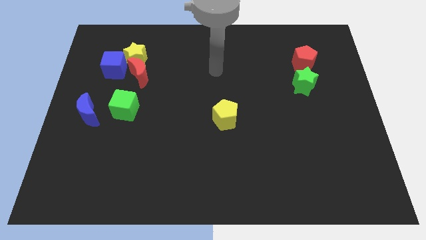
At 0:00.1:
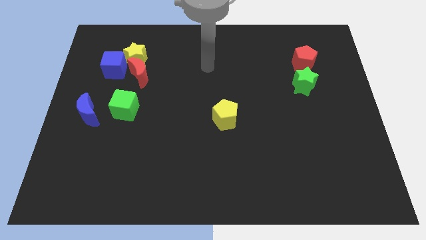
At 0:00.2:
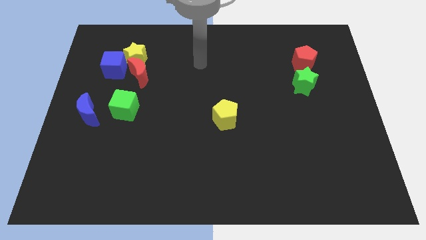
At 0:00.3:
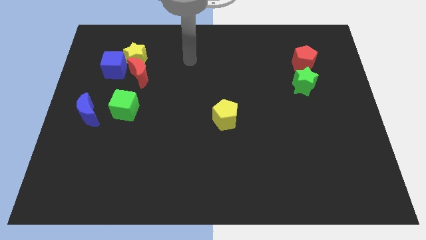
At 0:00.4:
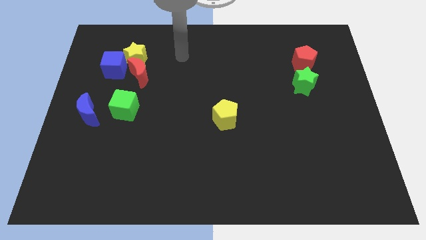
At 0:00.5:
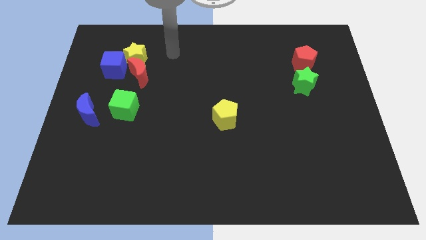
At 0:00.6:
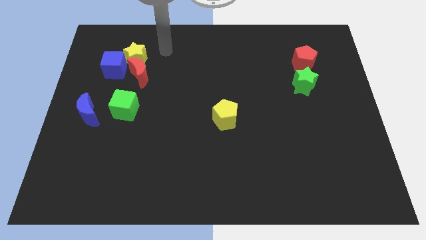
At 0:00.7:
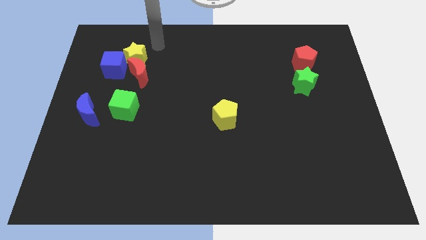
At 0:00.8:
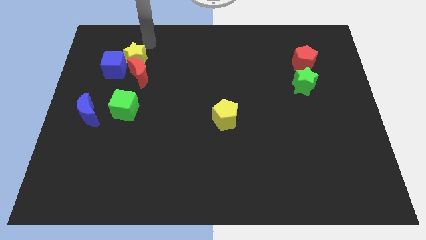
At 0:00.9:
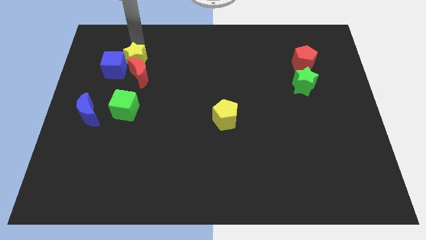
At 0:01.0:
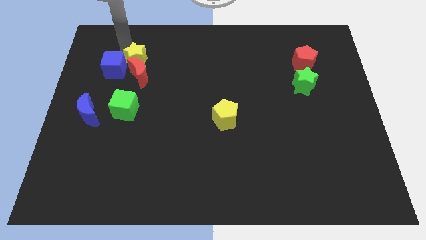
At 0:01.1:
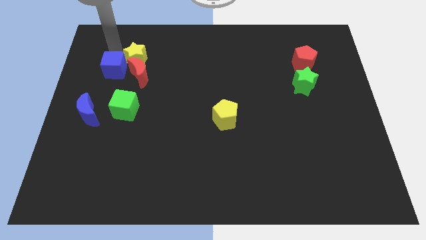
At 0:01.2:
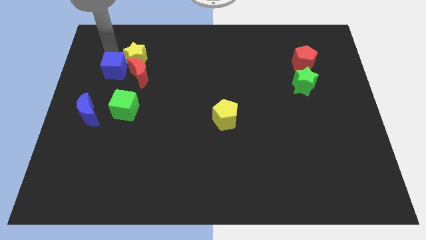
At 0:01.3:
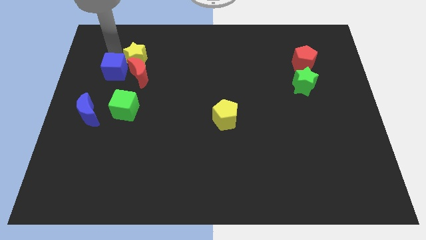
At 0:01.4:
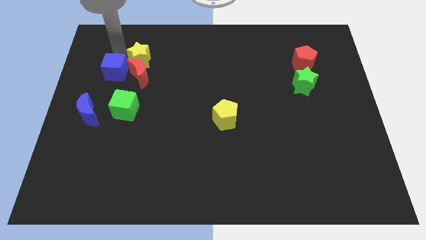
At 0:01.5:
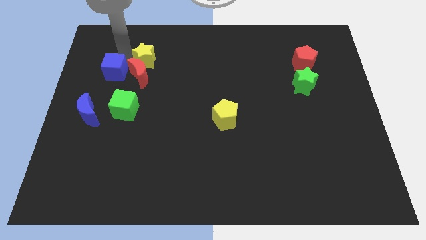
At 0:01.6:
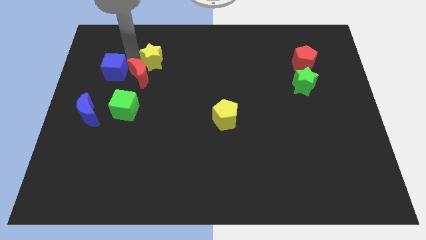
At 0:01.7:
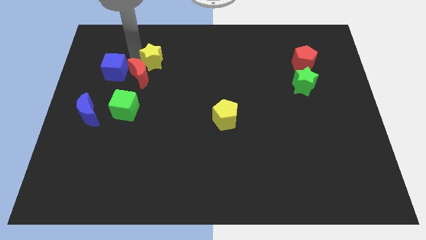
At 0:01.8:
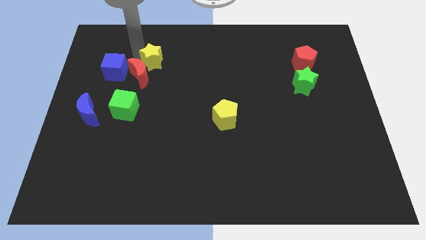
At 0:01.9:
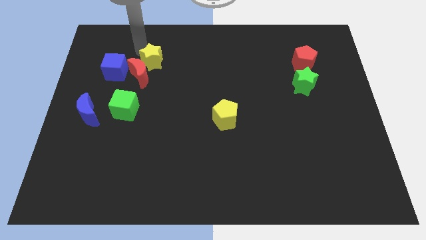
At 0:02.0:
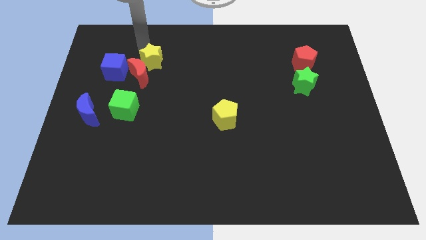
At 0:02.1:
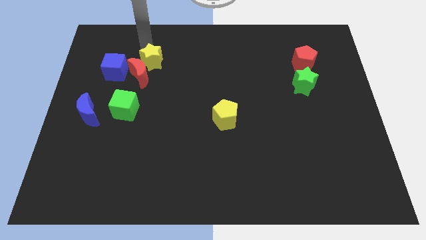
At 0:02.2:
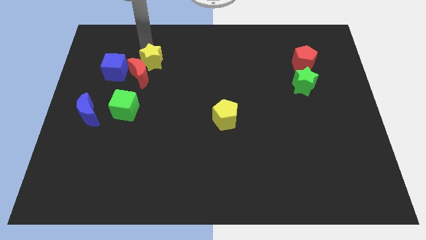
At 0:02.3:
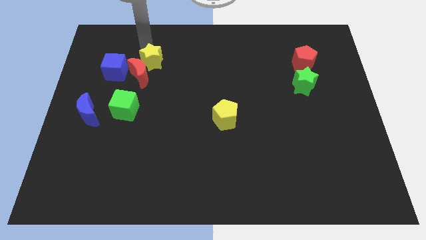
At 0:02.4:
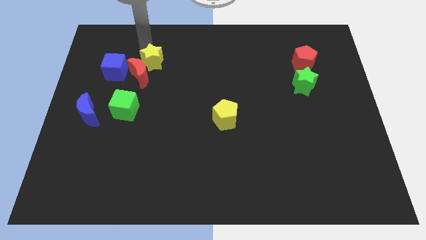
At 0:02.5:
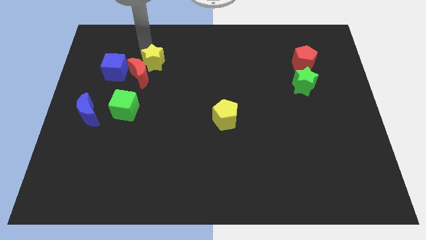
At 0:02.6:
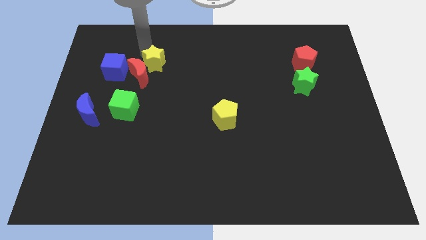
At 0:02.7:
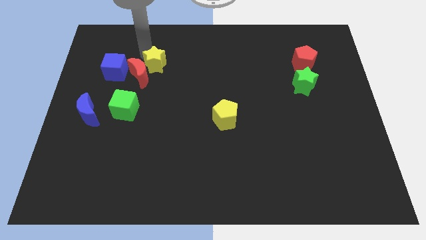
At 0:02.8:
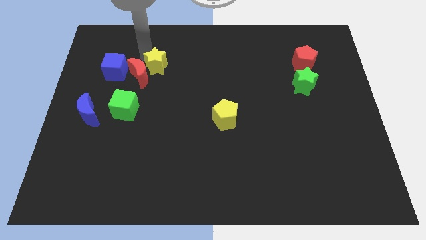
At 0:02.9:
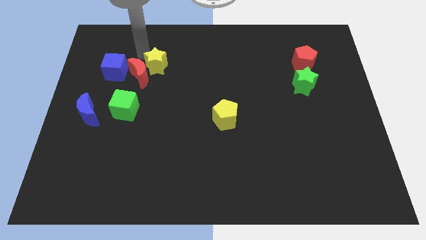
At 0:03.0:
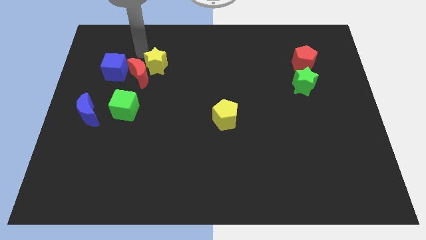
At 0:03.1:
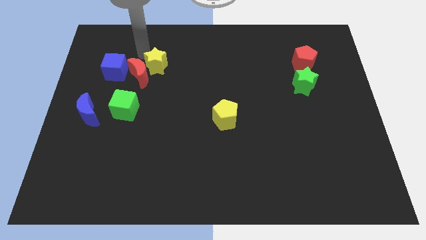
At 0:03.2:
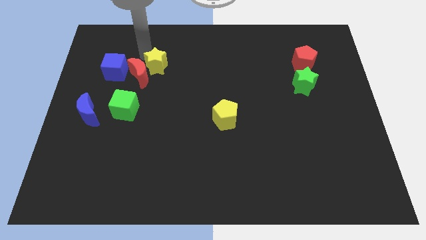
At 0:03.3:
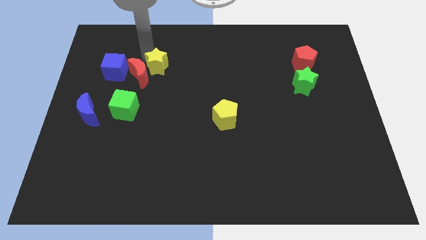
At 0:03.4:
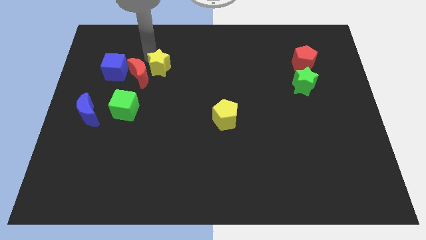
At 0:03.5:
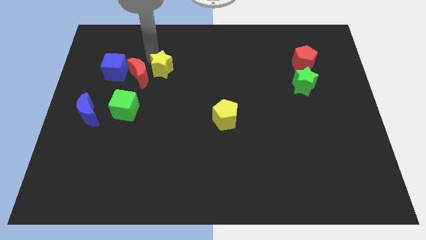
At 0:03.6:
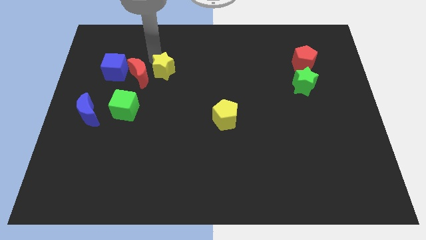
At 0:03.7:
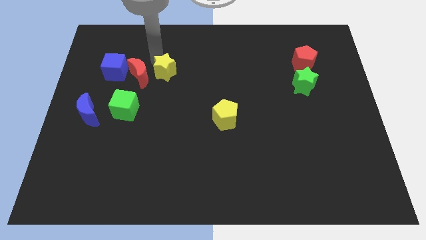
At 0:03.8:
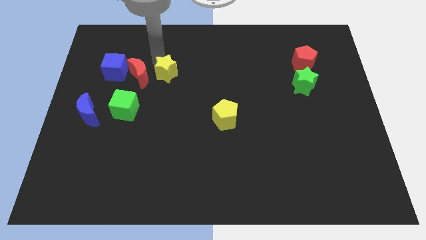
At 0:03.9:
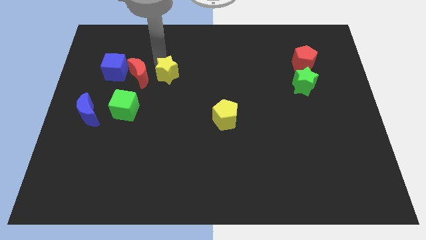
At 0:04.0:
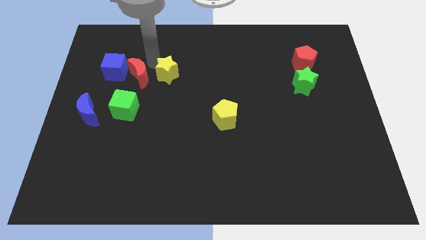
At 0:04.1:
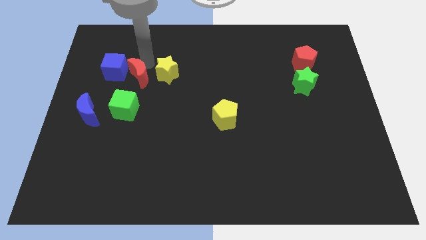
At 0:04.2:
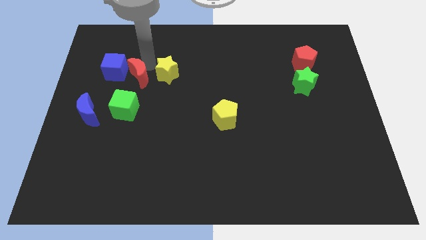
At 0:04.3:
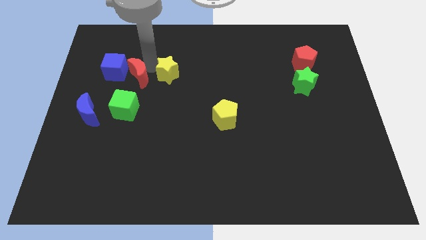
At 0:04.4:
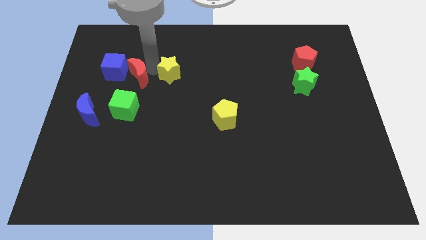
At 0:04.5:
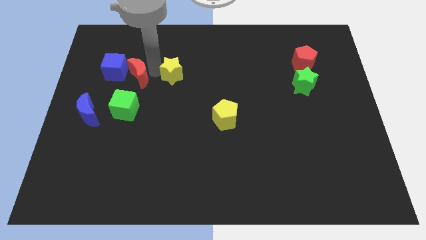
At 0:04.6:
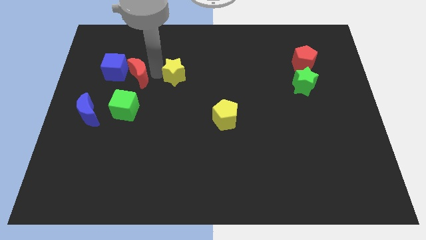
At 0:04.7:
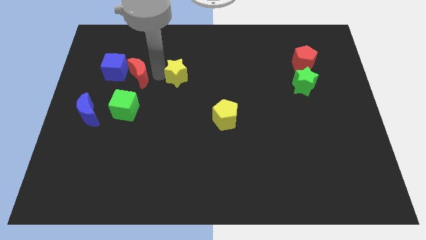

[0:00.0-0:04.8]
push the yellow star to the center of the board

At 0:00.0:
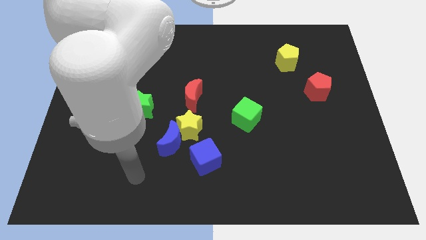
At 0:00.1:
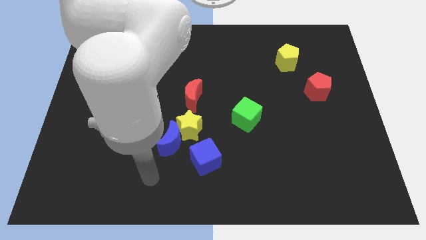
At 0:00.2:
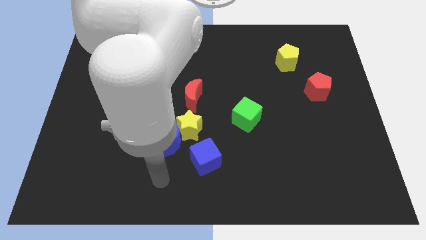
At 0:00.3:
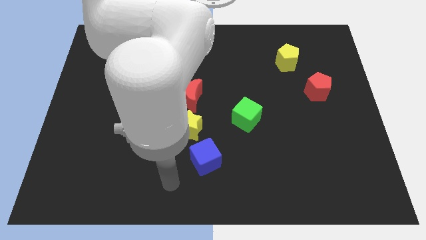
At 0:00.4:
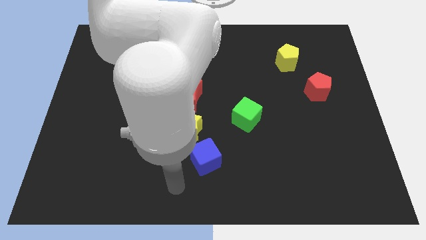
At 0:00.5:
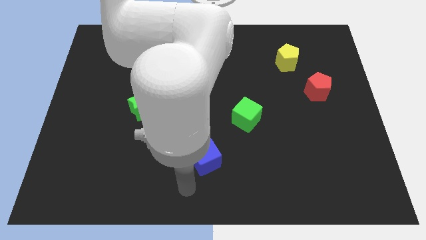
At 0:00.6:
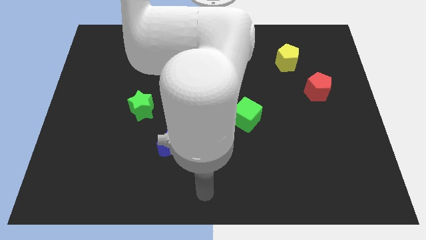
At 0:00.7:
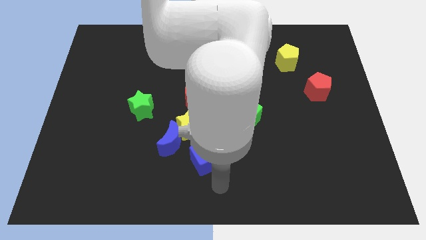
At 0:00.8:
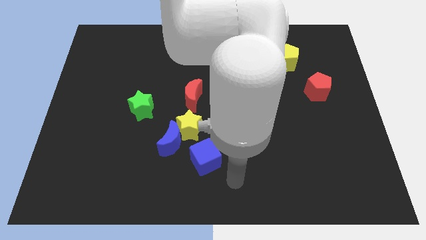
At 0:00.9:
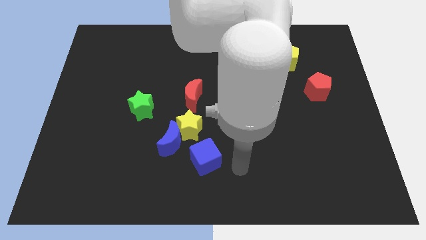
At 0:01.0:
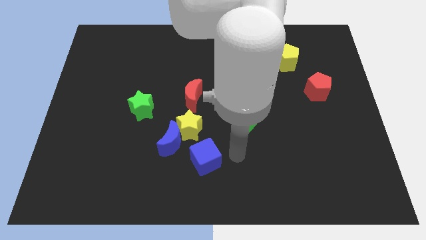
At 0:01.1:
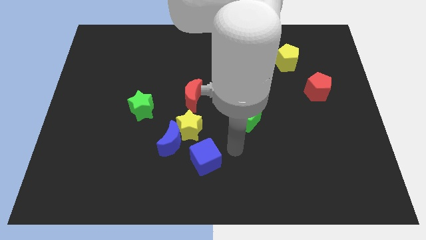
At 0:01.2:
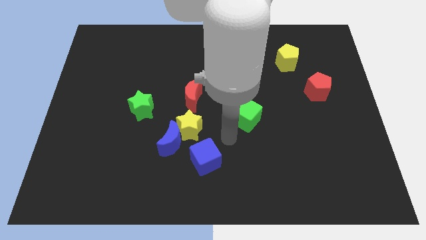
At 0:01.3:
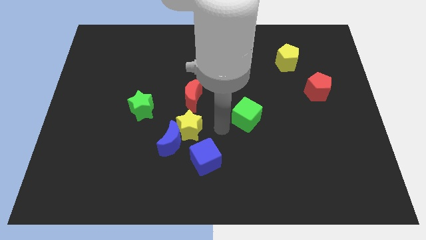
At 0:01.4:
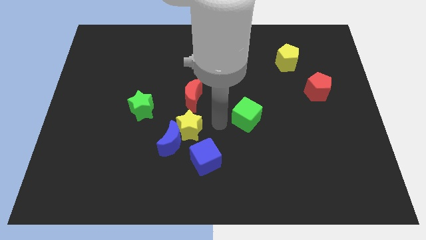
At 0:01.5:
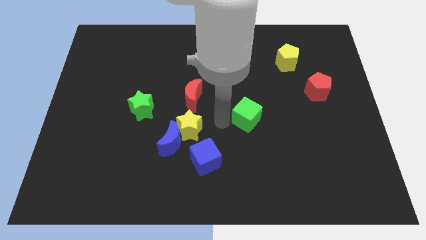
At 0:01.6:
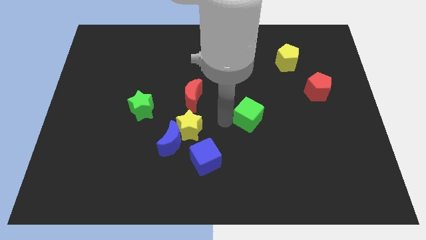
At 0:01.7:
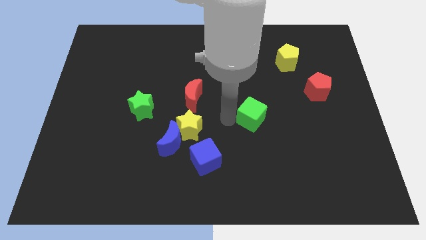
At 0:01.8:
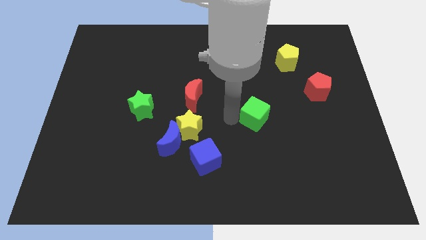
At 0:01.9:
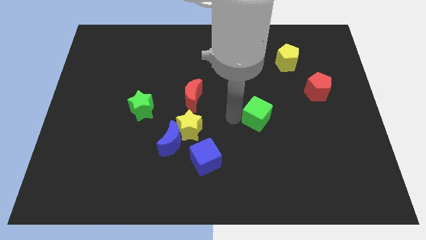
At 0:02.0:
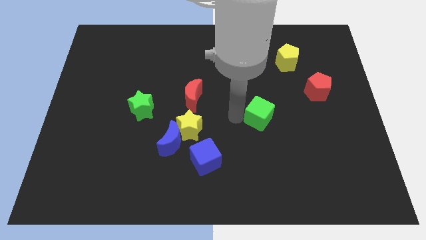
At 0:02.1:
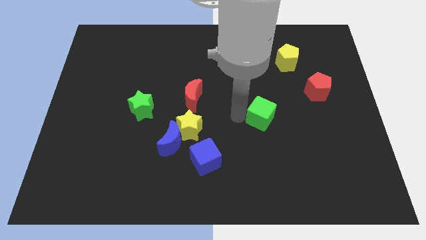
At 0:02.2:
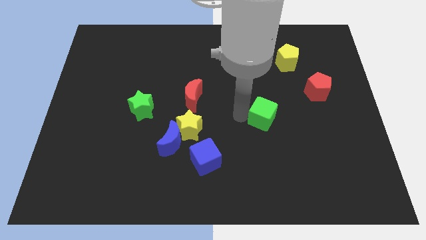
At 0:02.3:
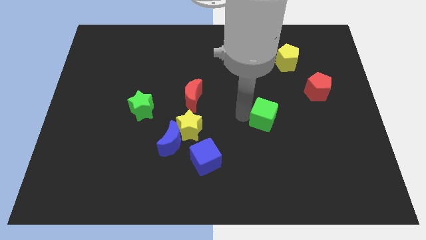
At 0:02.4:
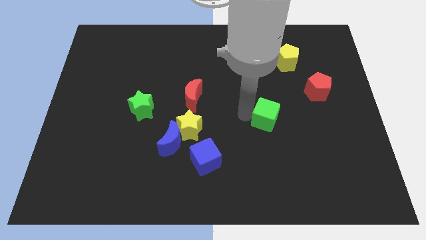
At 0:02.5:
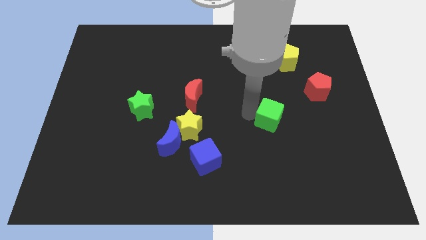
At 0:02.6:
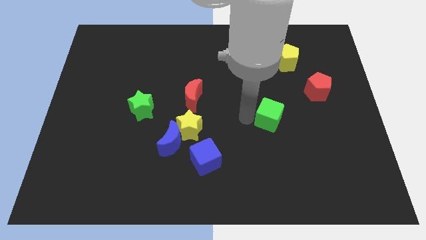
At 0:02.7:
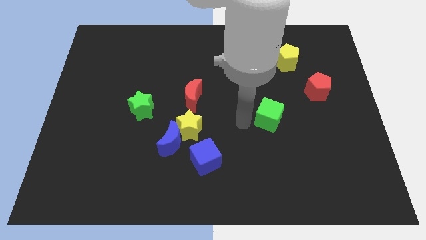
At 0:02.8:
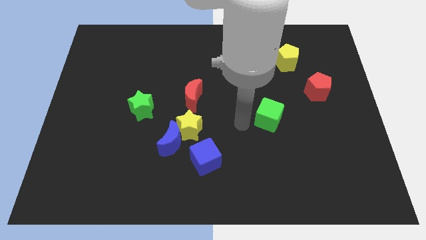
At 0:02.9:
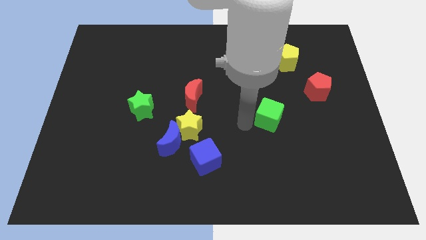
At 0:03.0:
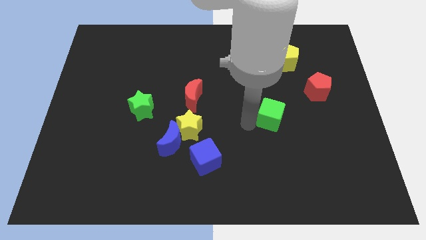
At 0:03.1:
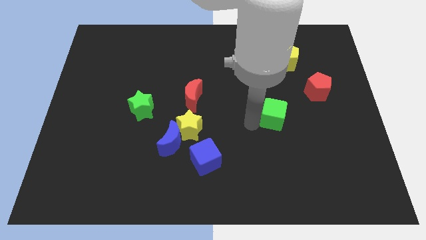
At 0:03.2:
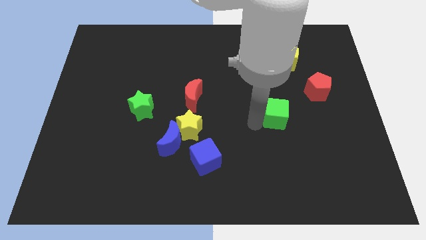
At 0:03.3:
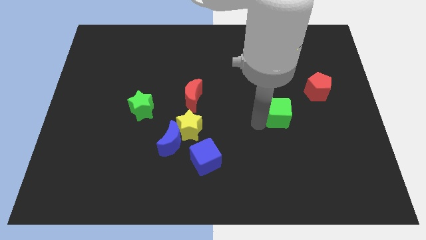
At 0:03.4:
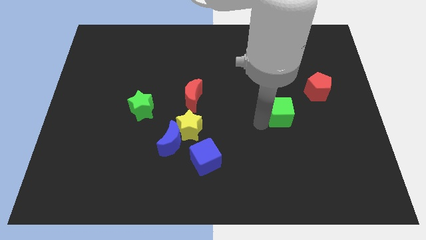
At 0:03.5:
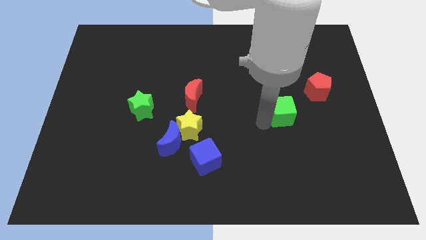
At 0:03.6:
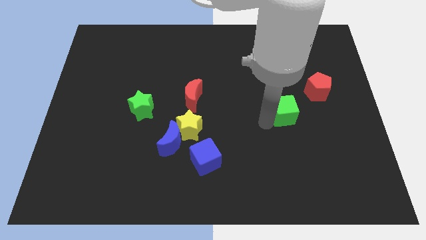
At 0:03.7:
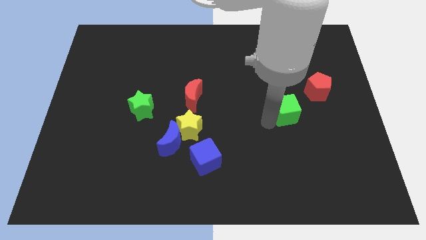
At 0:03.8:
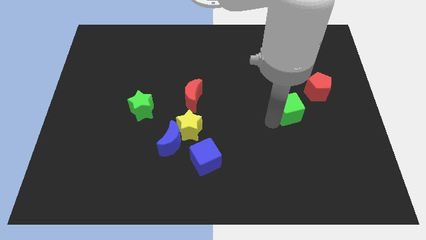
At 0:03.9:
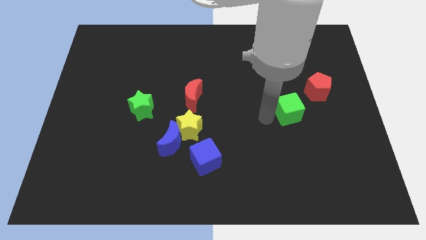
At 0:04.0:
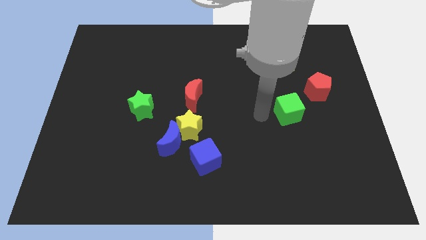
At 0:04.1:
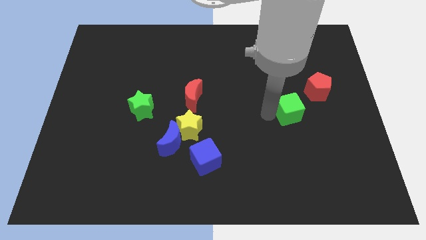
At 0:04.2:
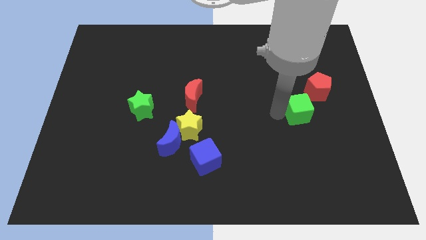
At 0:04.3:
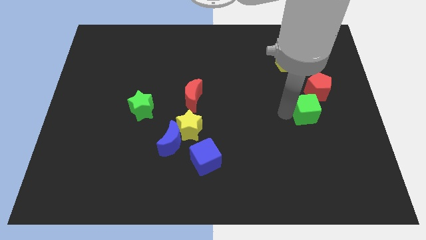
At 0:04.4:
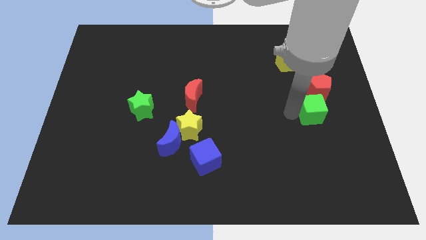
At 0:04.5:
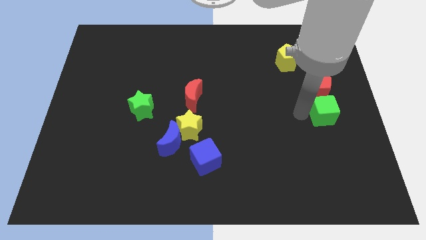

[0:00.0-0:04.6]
move the green cube to the right side of the board
